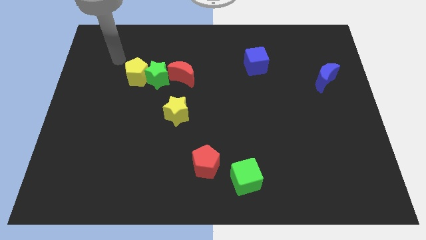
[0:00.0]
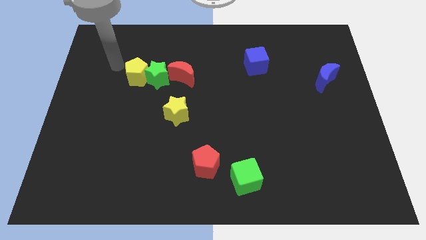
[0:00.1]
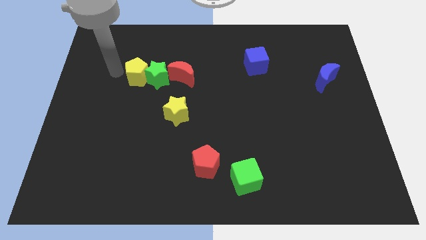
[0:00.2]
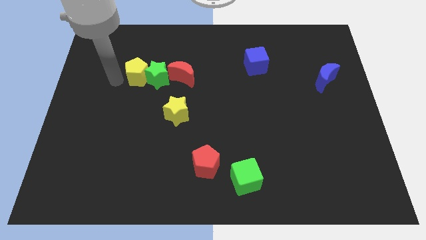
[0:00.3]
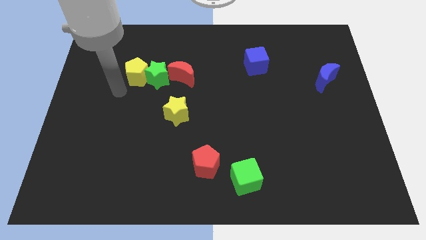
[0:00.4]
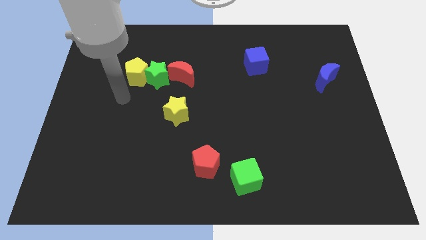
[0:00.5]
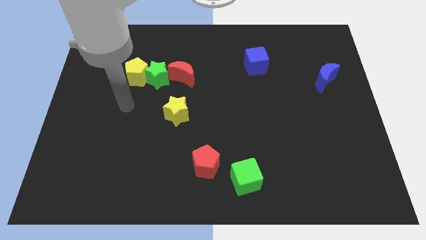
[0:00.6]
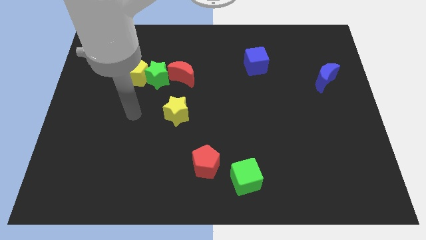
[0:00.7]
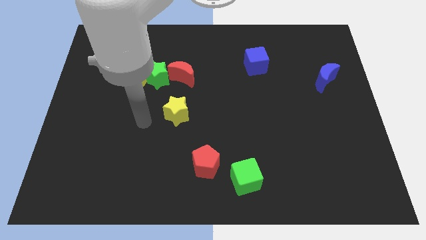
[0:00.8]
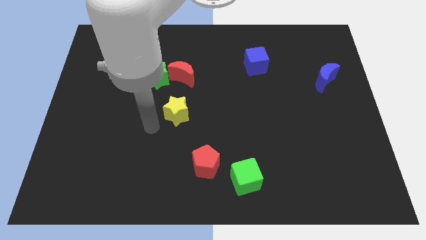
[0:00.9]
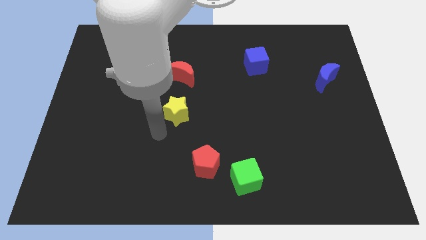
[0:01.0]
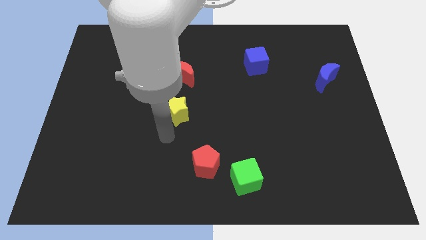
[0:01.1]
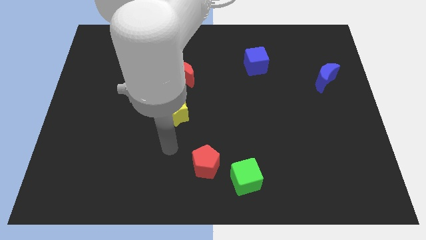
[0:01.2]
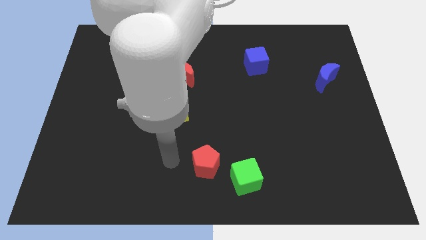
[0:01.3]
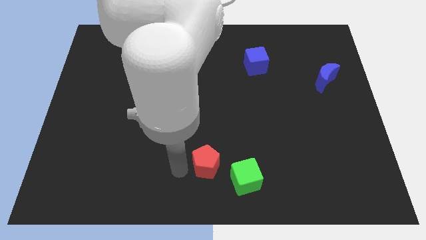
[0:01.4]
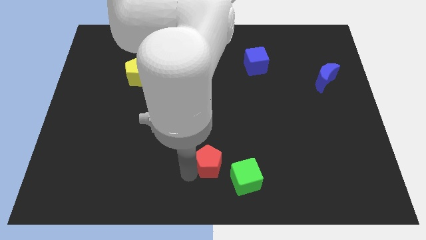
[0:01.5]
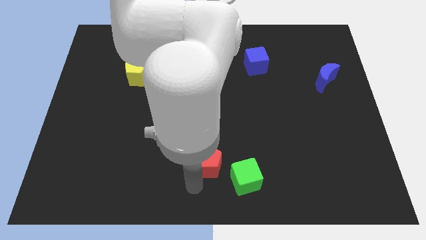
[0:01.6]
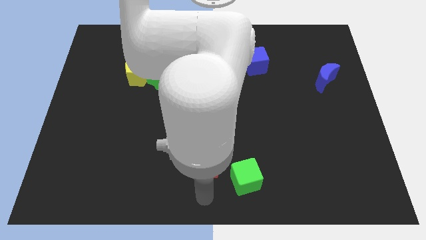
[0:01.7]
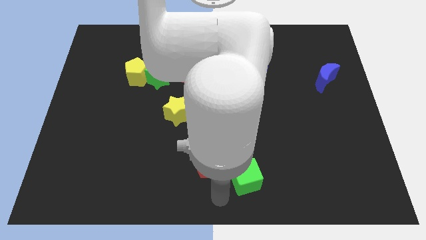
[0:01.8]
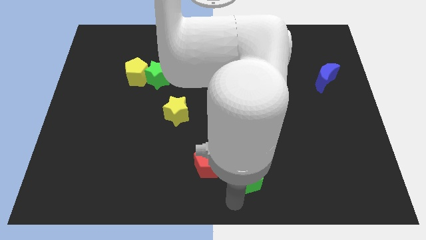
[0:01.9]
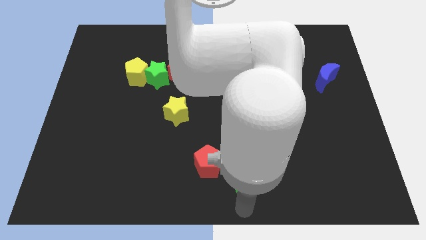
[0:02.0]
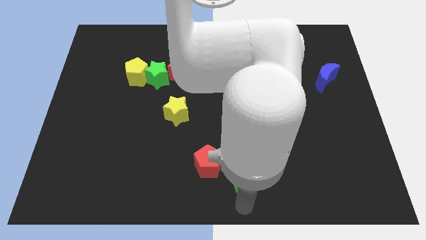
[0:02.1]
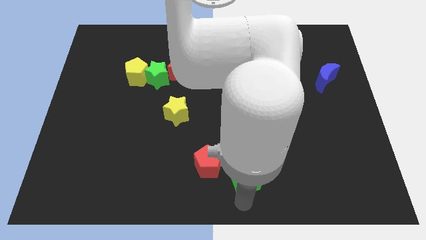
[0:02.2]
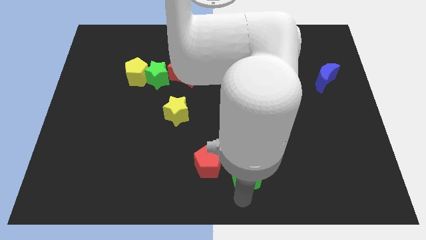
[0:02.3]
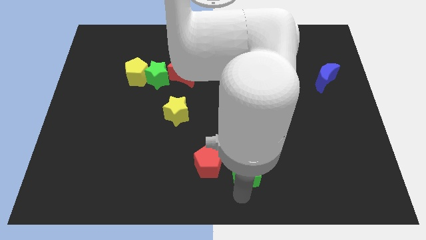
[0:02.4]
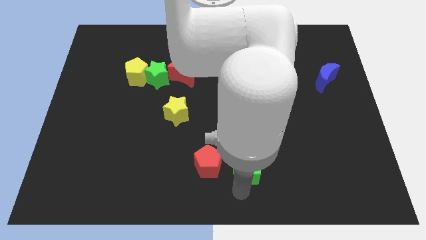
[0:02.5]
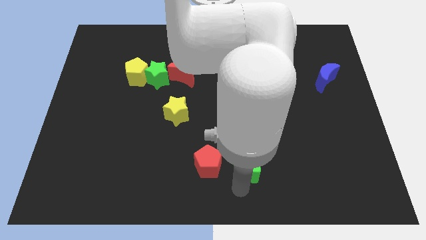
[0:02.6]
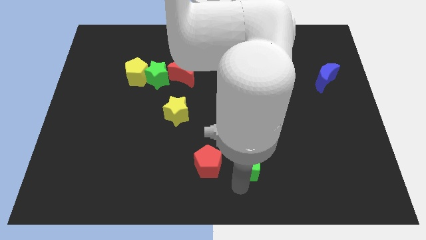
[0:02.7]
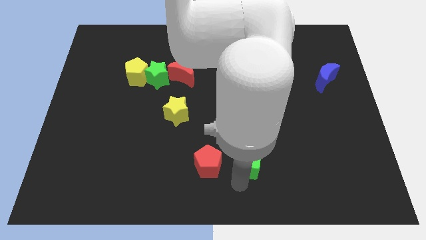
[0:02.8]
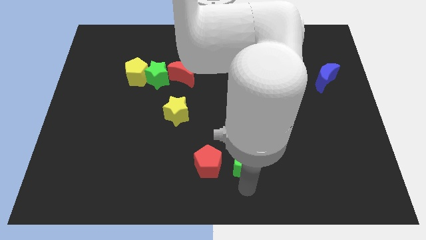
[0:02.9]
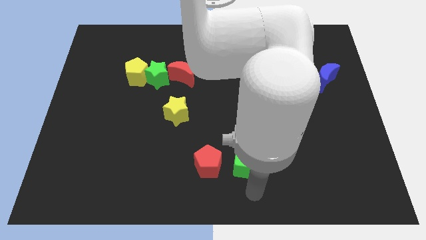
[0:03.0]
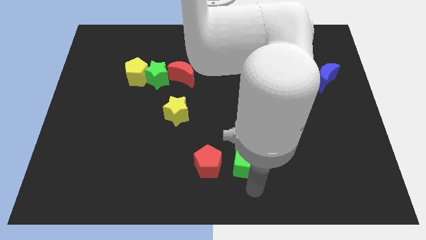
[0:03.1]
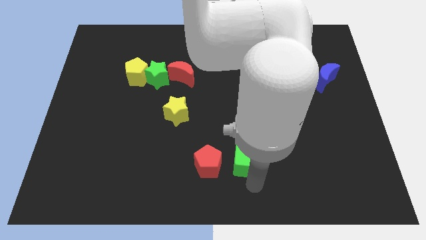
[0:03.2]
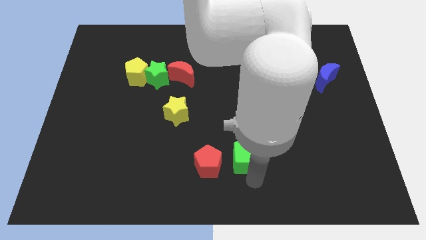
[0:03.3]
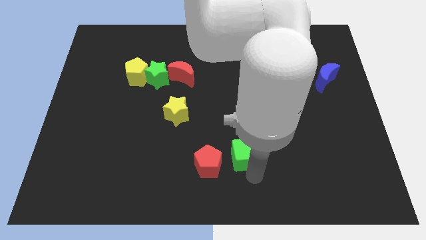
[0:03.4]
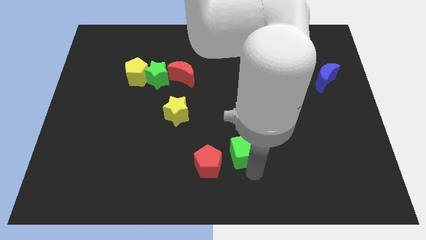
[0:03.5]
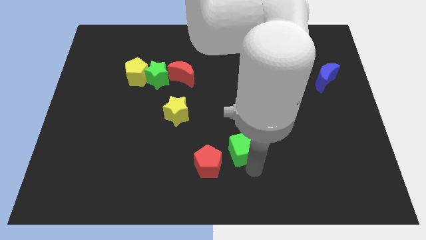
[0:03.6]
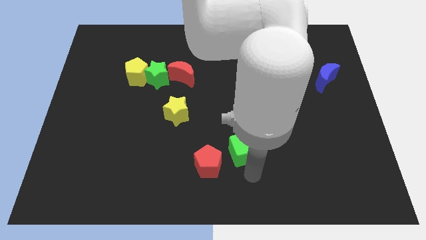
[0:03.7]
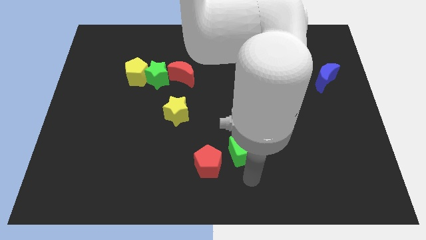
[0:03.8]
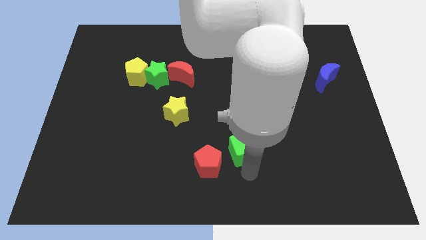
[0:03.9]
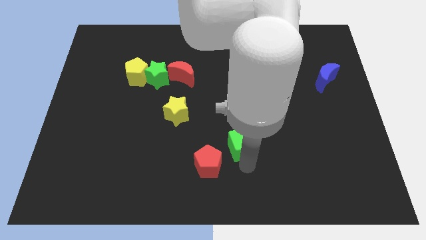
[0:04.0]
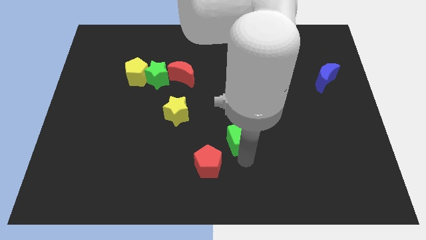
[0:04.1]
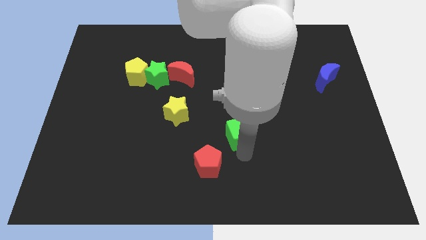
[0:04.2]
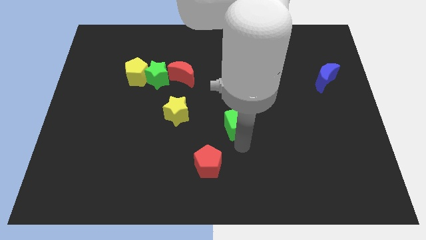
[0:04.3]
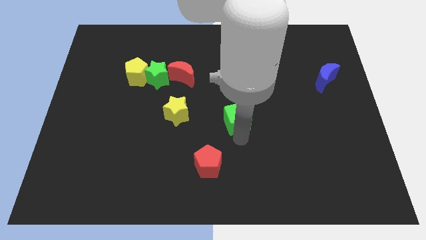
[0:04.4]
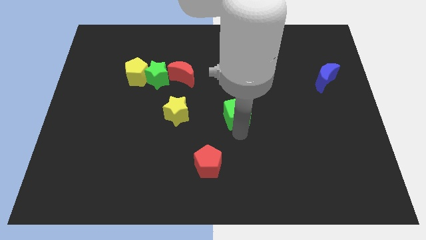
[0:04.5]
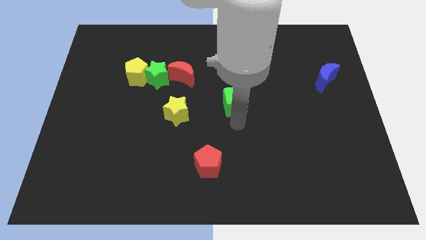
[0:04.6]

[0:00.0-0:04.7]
slide the green cube up

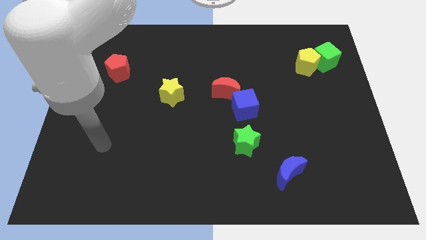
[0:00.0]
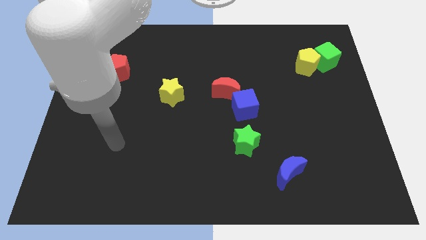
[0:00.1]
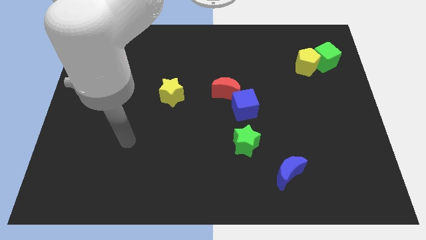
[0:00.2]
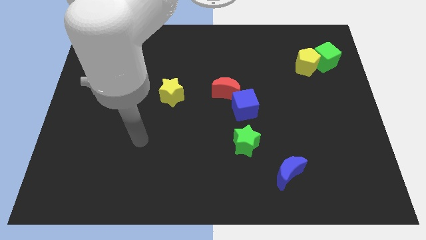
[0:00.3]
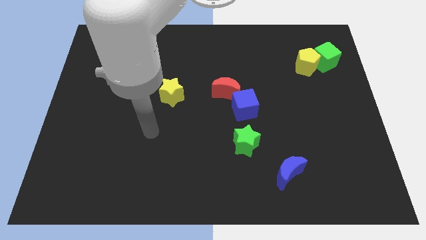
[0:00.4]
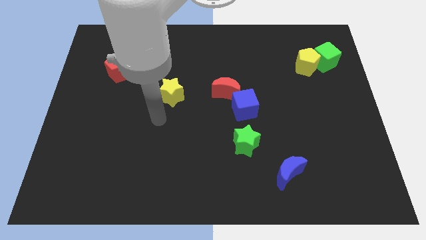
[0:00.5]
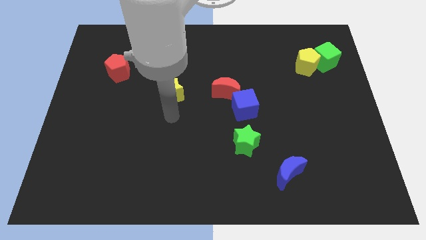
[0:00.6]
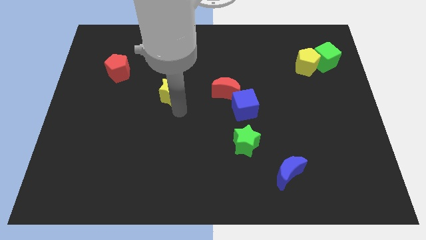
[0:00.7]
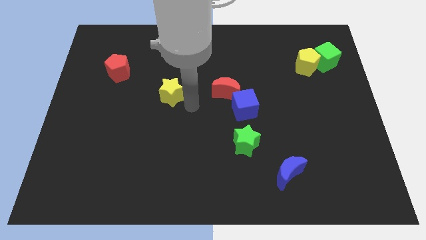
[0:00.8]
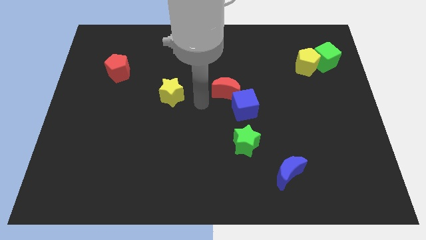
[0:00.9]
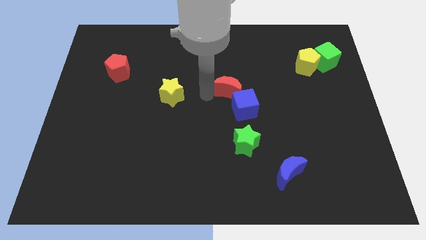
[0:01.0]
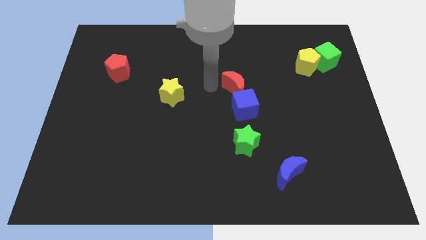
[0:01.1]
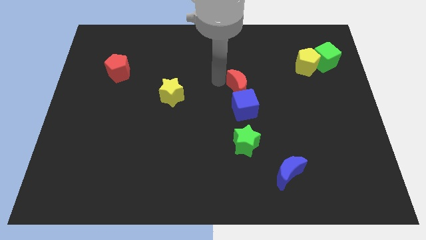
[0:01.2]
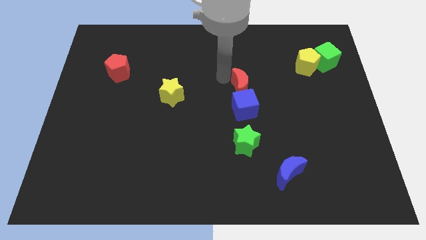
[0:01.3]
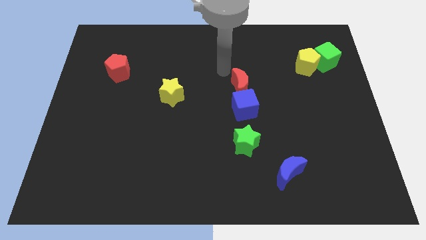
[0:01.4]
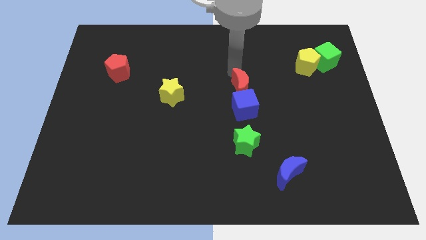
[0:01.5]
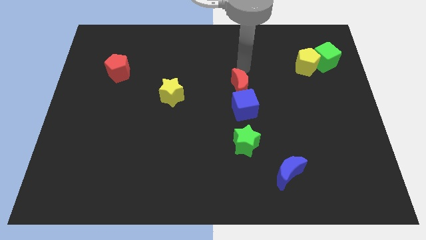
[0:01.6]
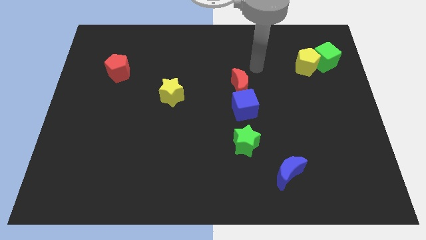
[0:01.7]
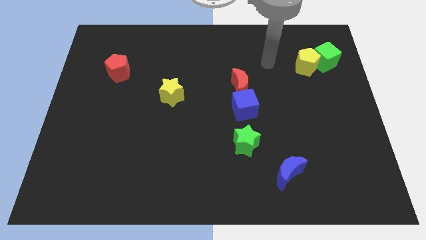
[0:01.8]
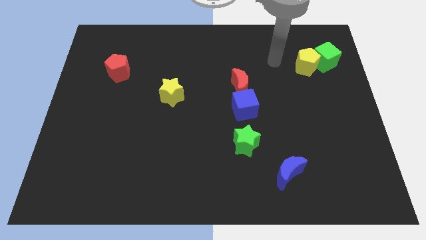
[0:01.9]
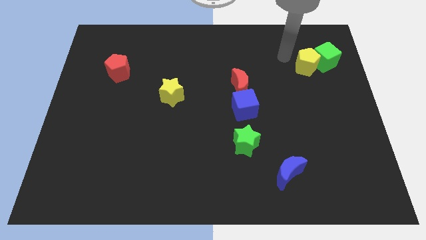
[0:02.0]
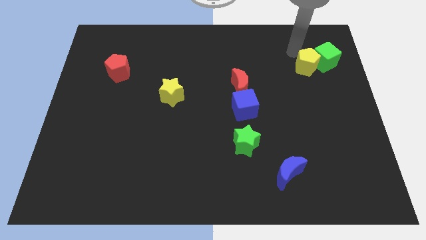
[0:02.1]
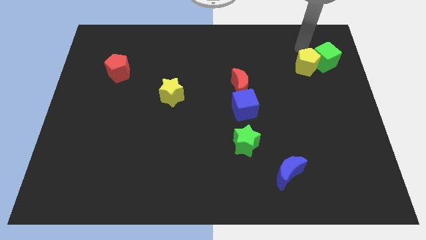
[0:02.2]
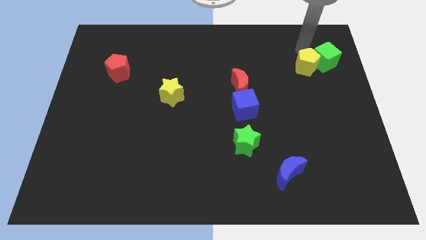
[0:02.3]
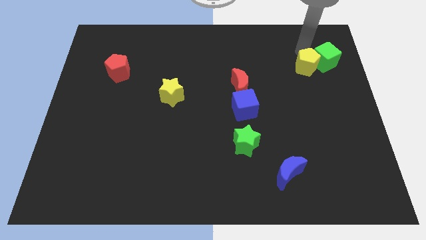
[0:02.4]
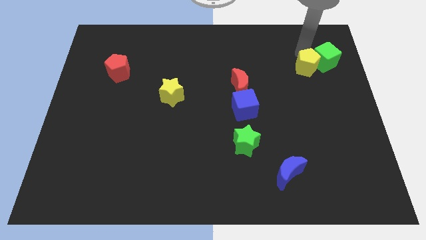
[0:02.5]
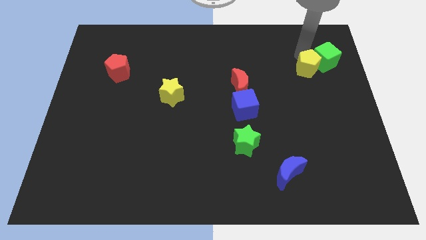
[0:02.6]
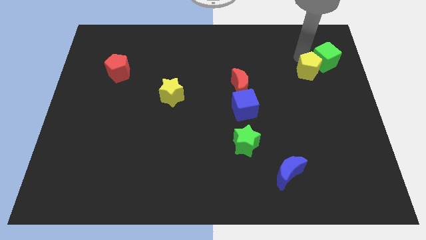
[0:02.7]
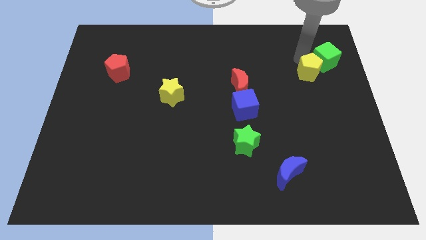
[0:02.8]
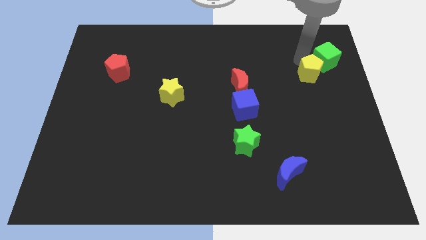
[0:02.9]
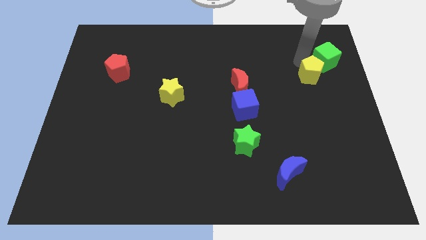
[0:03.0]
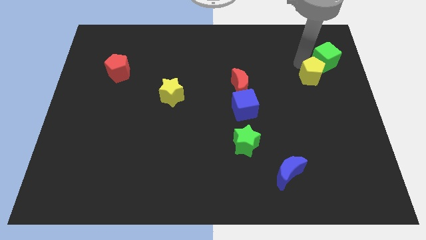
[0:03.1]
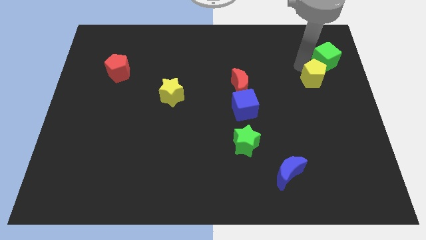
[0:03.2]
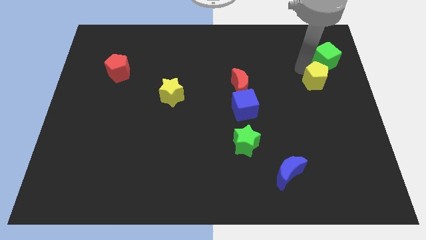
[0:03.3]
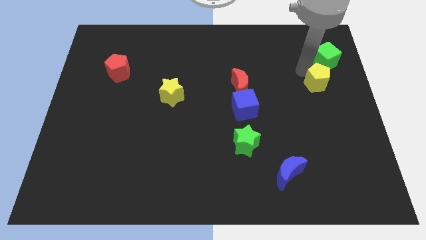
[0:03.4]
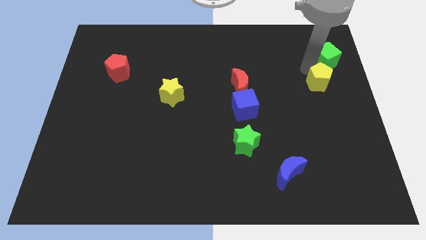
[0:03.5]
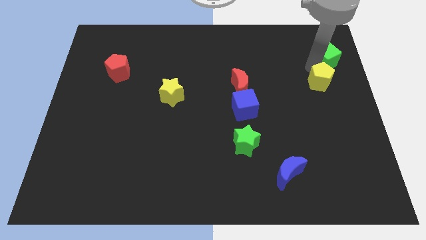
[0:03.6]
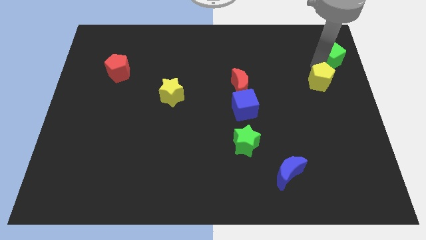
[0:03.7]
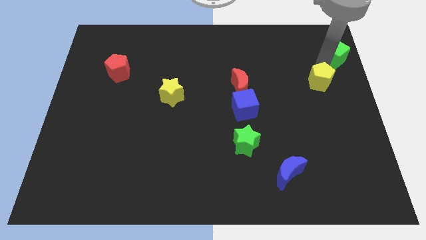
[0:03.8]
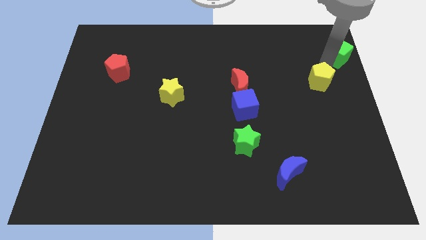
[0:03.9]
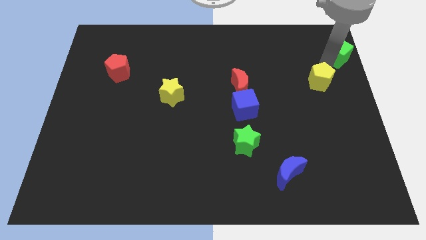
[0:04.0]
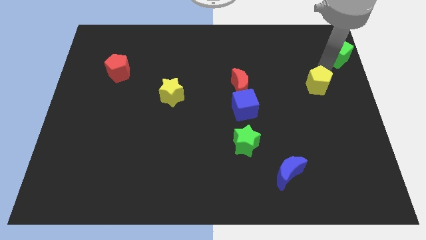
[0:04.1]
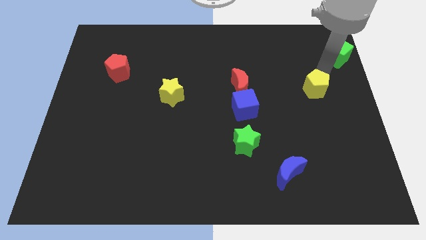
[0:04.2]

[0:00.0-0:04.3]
slightly slide the yellow pentagon downwards
